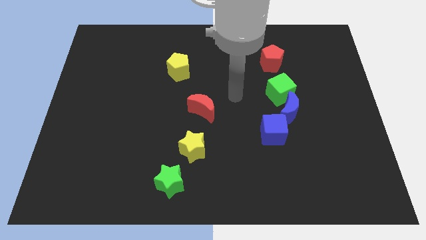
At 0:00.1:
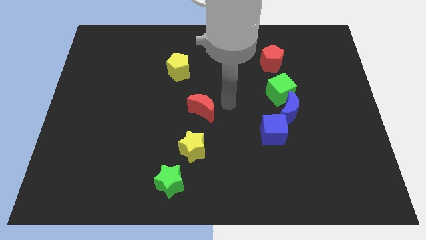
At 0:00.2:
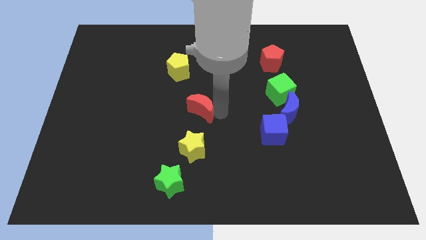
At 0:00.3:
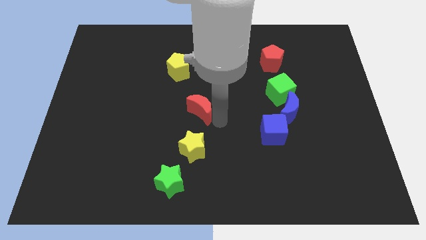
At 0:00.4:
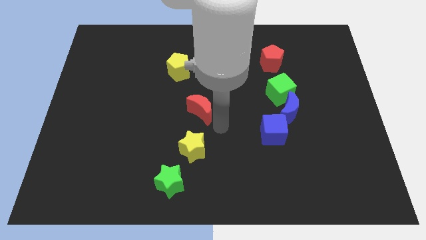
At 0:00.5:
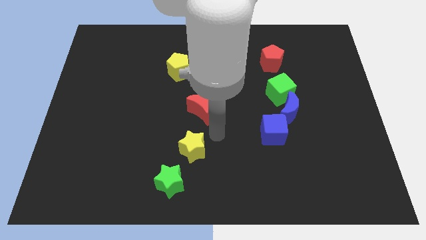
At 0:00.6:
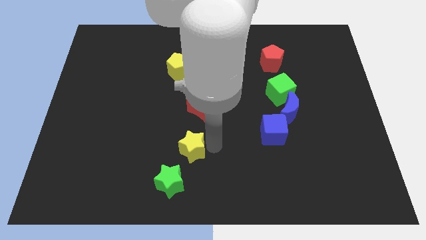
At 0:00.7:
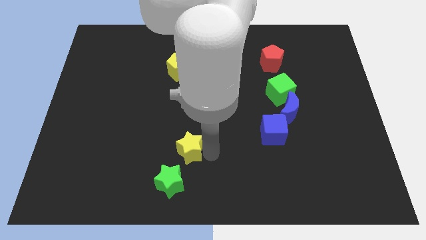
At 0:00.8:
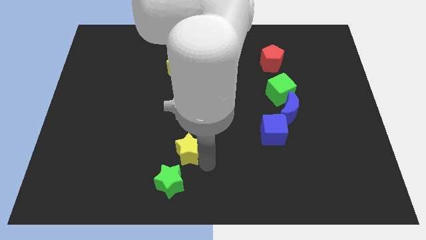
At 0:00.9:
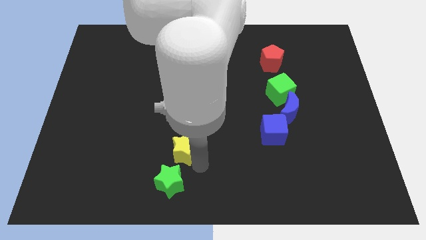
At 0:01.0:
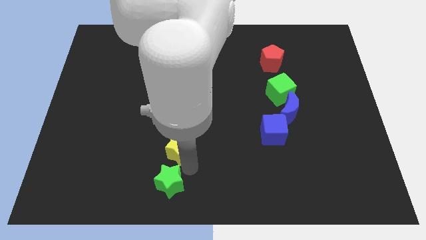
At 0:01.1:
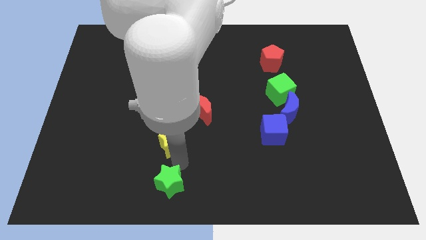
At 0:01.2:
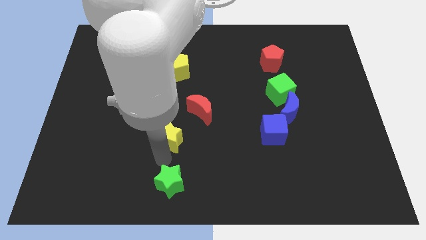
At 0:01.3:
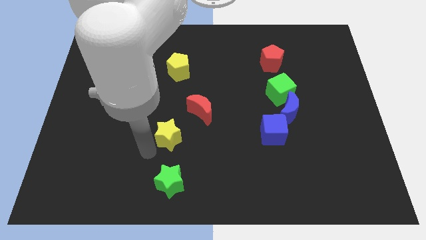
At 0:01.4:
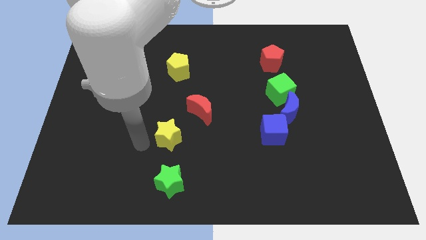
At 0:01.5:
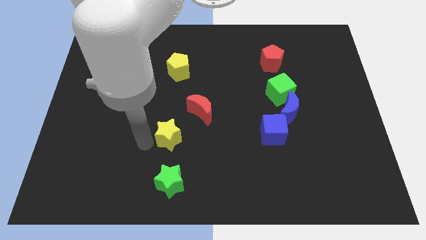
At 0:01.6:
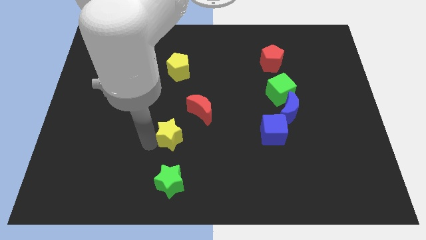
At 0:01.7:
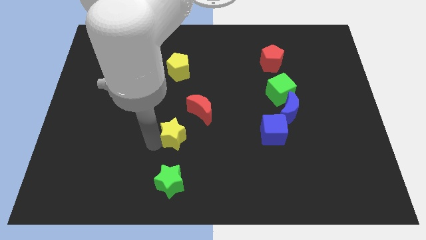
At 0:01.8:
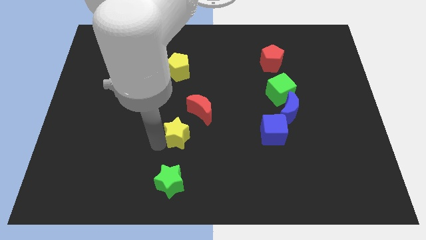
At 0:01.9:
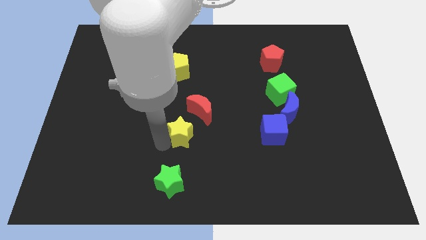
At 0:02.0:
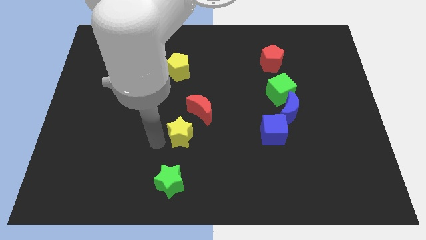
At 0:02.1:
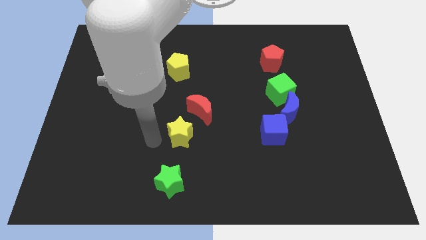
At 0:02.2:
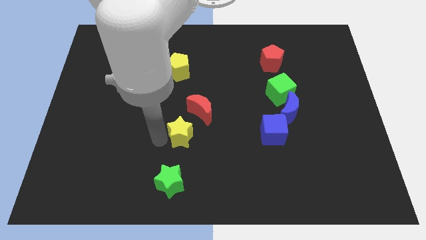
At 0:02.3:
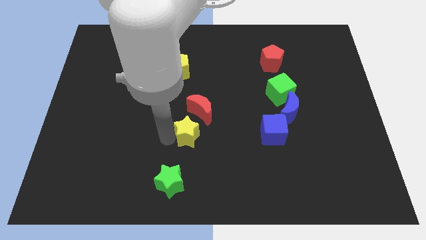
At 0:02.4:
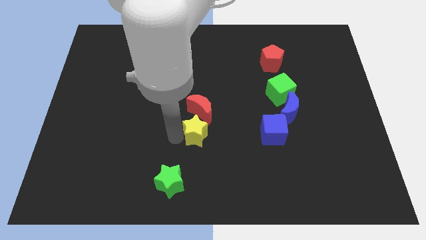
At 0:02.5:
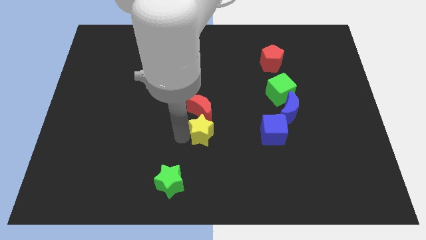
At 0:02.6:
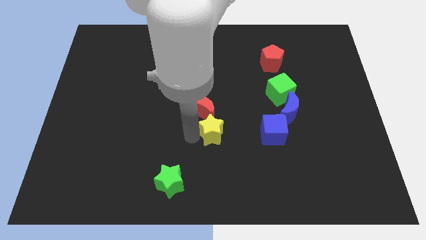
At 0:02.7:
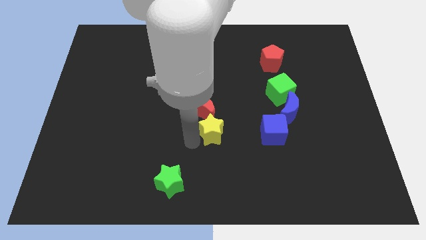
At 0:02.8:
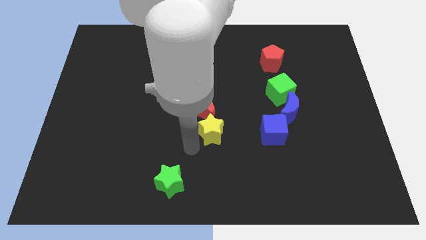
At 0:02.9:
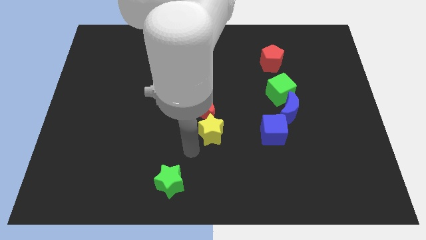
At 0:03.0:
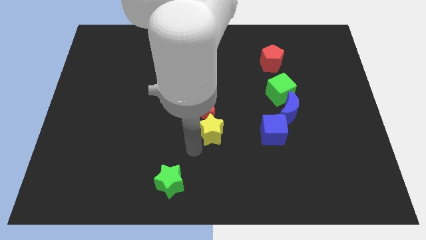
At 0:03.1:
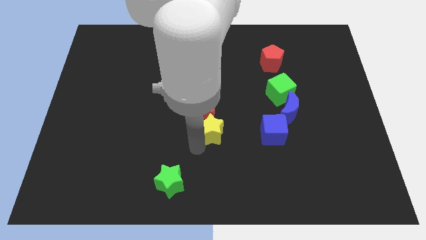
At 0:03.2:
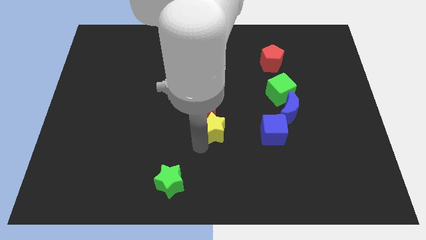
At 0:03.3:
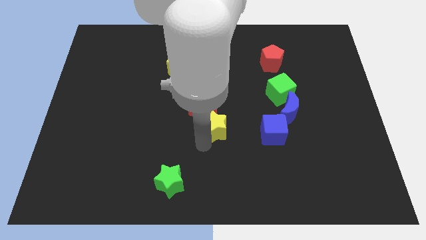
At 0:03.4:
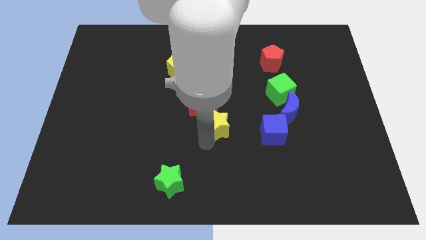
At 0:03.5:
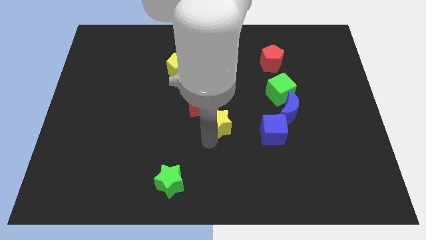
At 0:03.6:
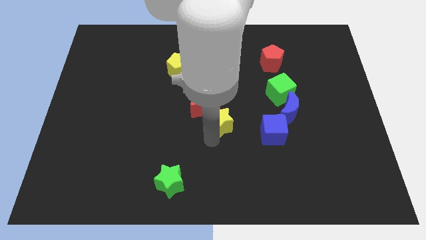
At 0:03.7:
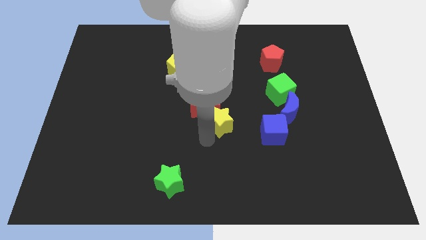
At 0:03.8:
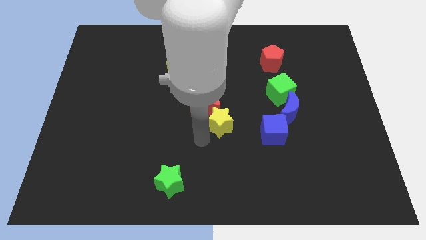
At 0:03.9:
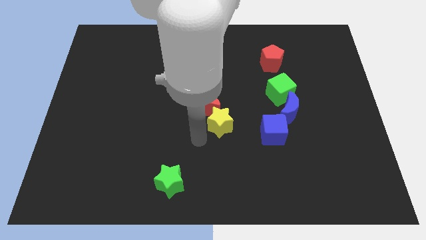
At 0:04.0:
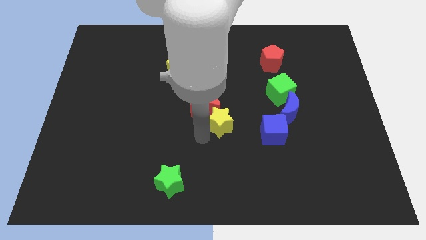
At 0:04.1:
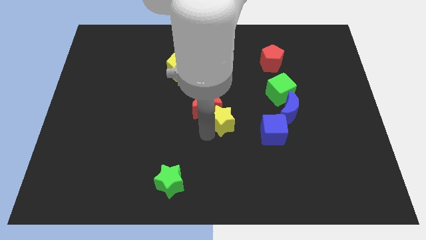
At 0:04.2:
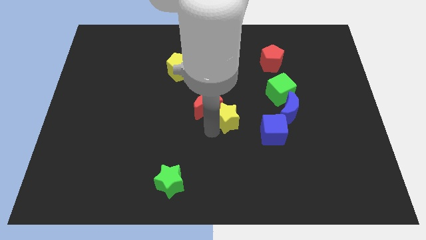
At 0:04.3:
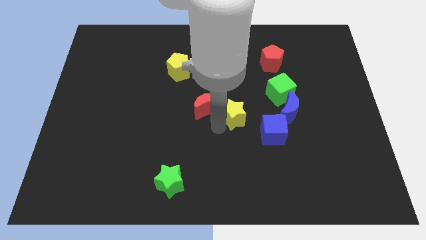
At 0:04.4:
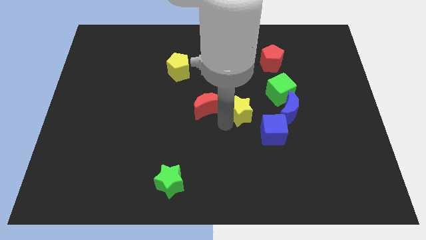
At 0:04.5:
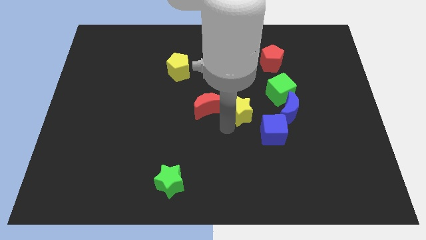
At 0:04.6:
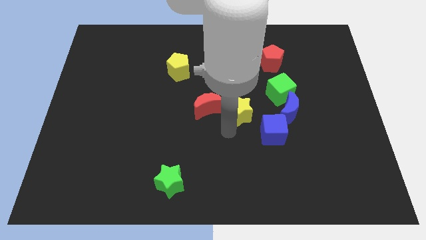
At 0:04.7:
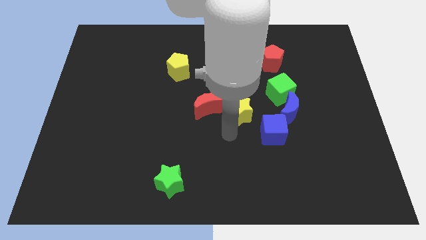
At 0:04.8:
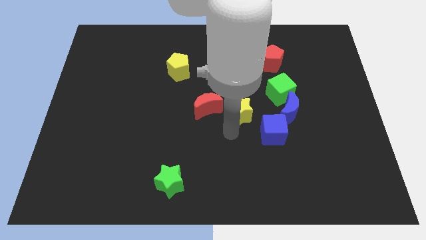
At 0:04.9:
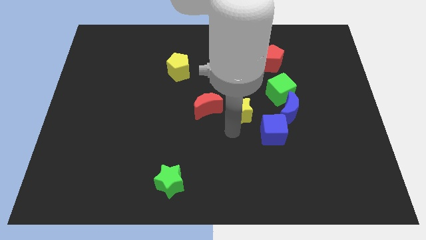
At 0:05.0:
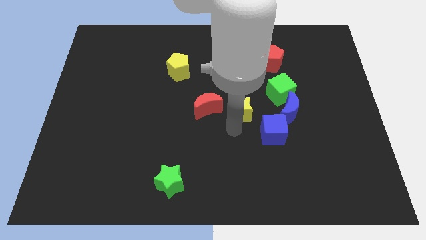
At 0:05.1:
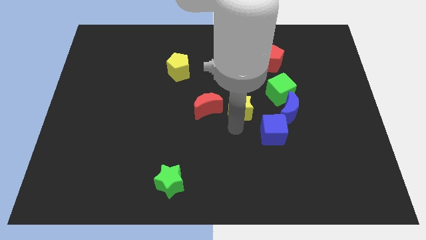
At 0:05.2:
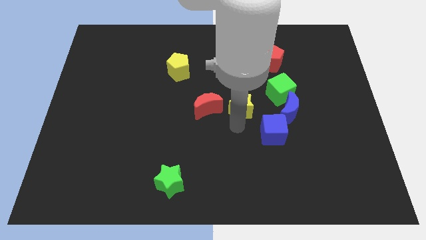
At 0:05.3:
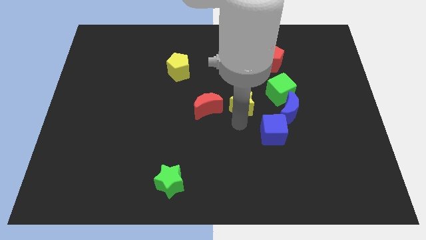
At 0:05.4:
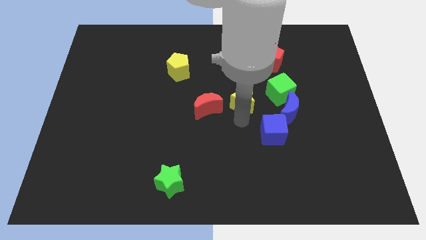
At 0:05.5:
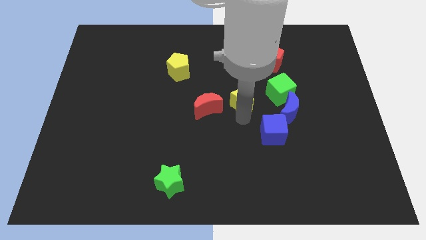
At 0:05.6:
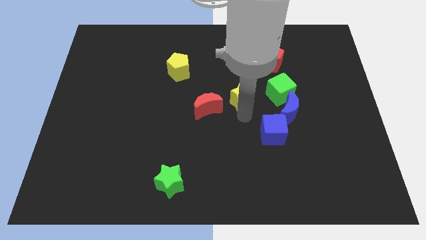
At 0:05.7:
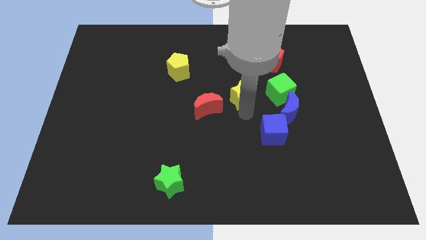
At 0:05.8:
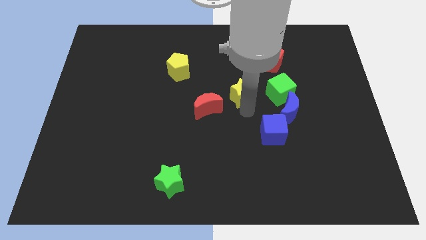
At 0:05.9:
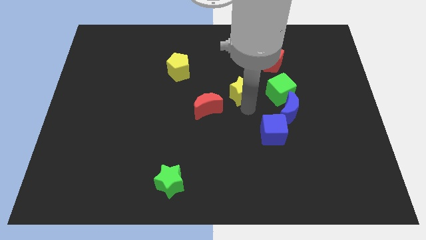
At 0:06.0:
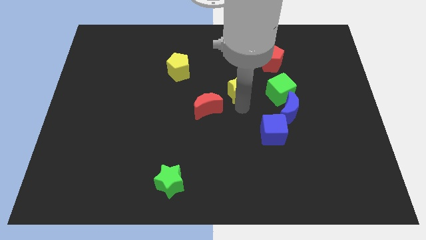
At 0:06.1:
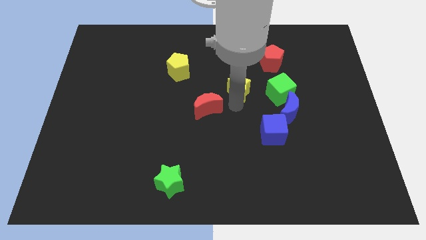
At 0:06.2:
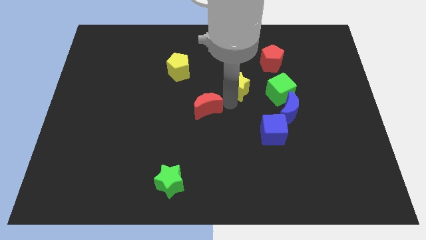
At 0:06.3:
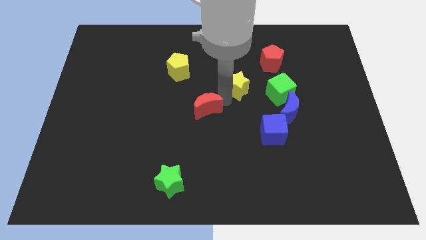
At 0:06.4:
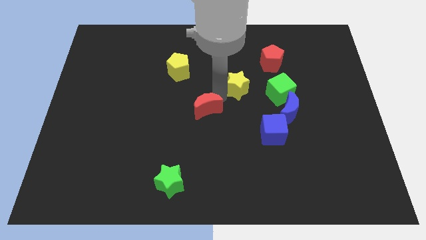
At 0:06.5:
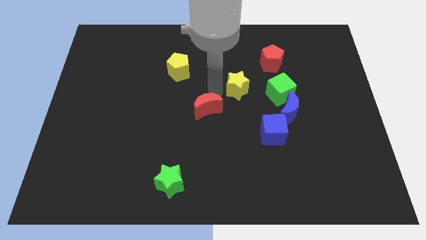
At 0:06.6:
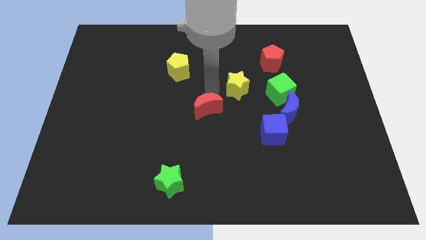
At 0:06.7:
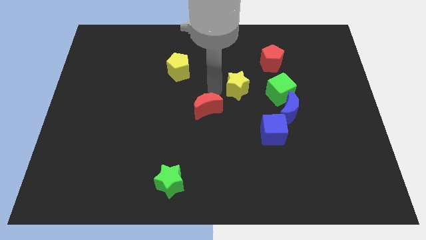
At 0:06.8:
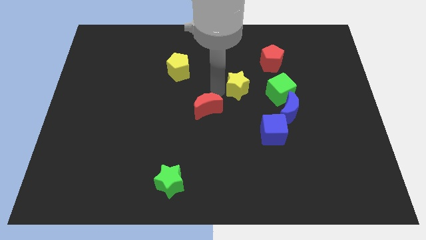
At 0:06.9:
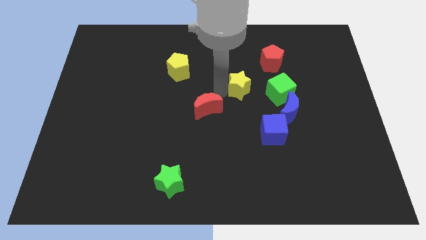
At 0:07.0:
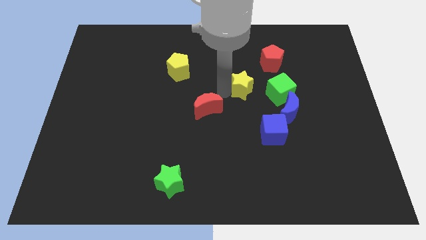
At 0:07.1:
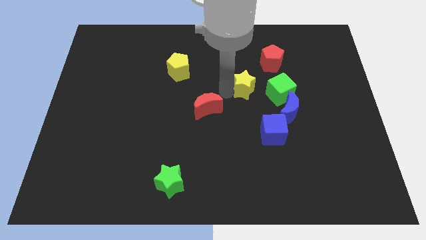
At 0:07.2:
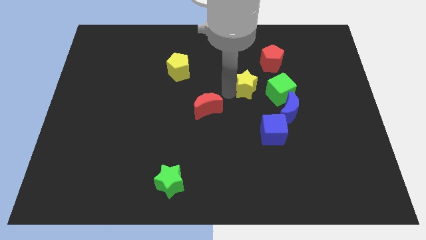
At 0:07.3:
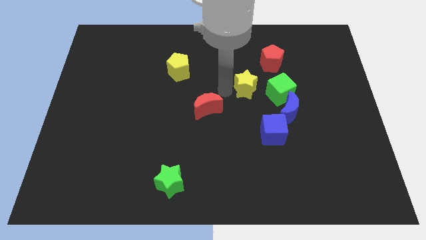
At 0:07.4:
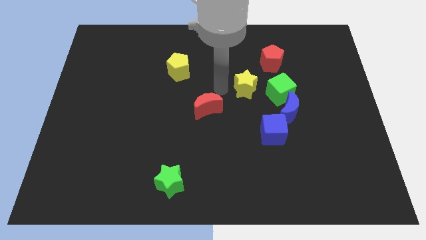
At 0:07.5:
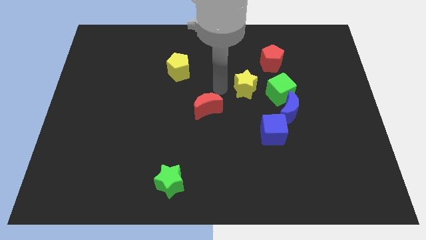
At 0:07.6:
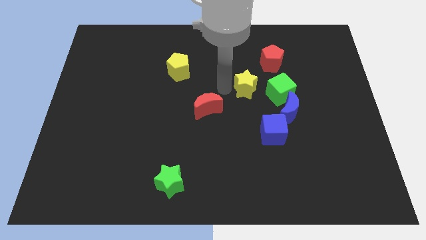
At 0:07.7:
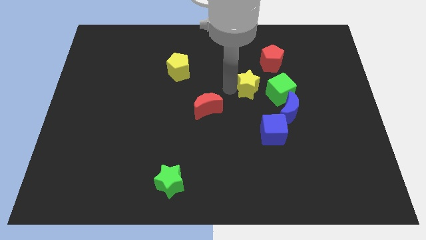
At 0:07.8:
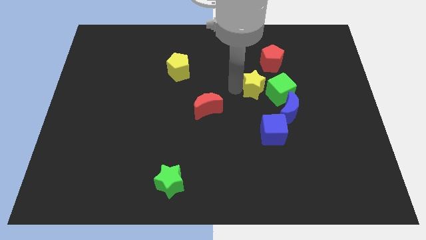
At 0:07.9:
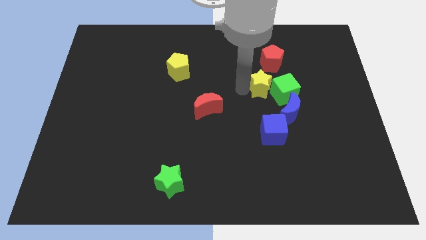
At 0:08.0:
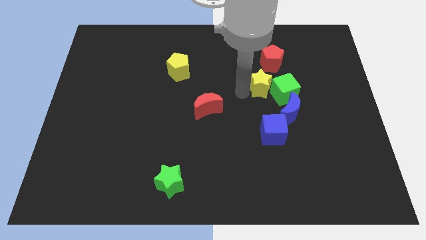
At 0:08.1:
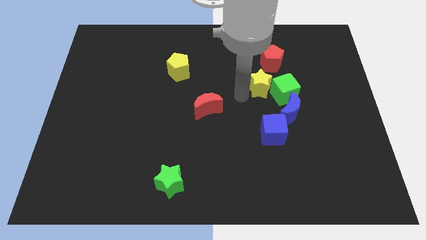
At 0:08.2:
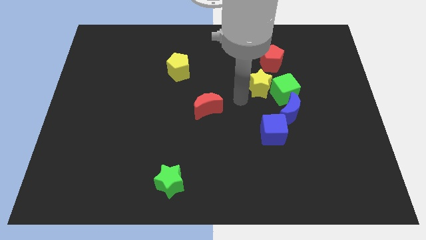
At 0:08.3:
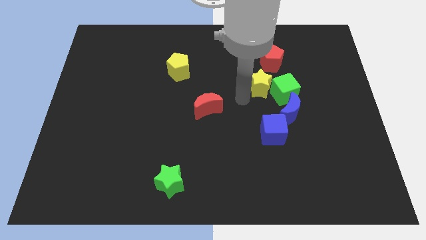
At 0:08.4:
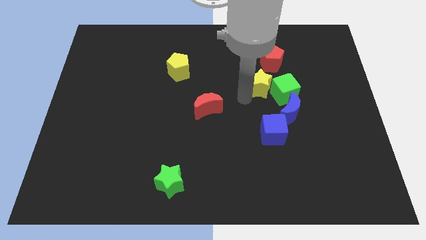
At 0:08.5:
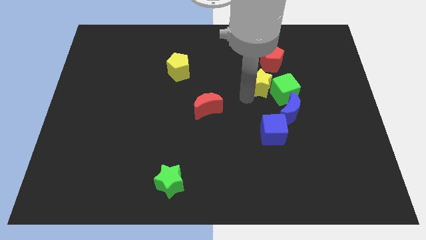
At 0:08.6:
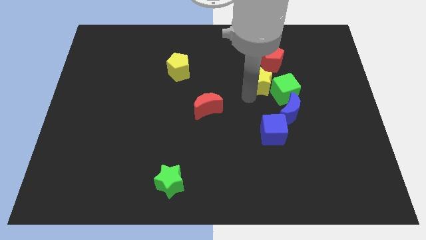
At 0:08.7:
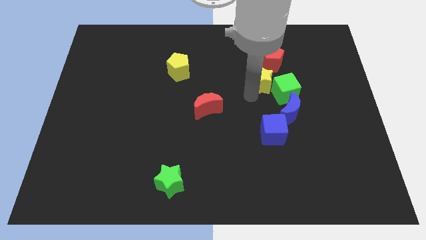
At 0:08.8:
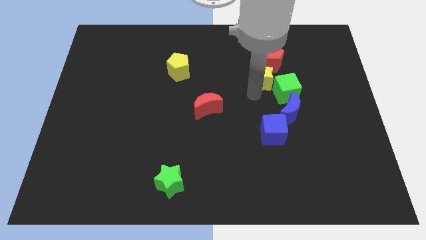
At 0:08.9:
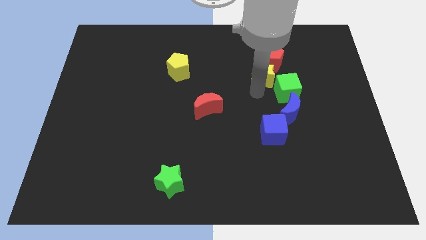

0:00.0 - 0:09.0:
put the yellow star to the top of the blue moon
